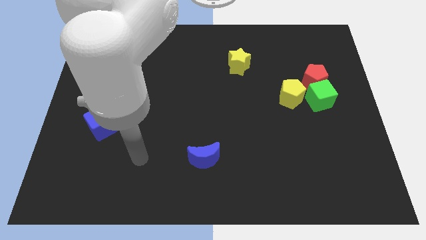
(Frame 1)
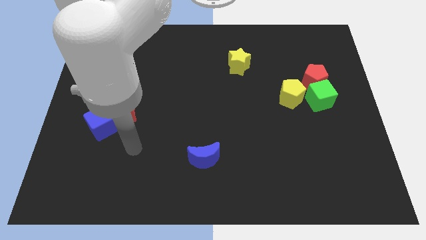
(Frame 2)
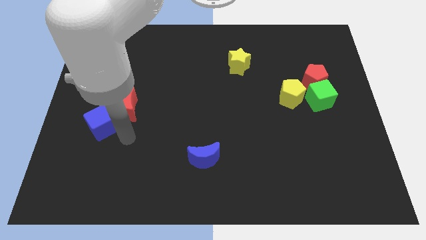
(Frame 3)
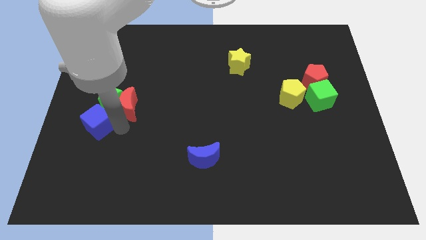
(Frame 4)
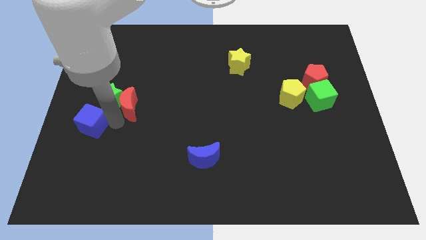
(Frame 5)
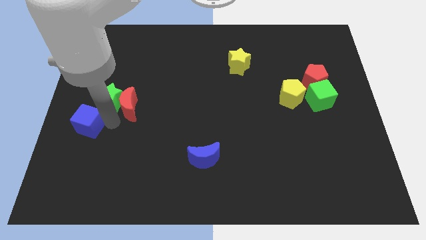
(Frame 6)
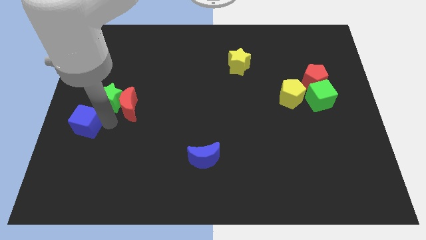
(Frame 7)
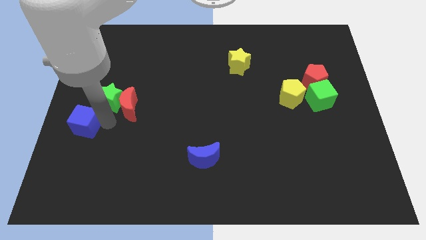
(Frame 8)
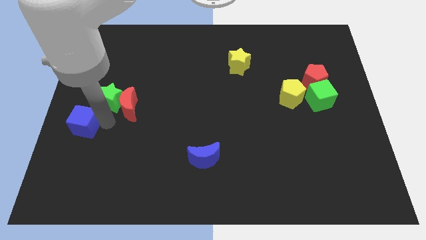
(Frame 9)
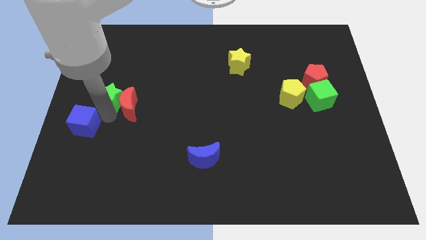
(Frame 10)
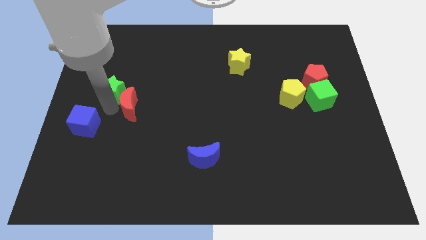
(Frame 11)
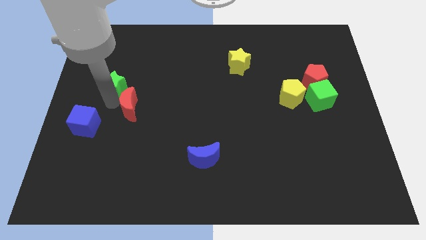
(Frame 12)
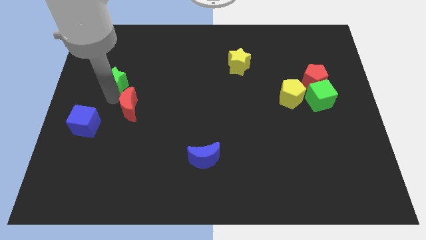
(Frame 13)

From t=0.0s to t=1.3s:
separate the green star from the red moon and blue cube

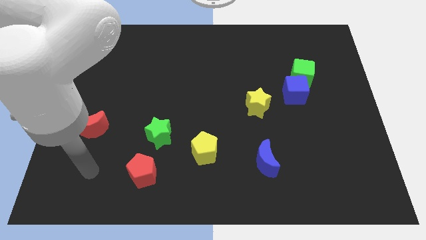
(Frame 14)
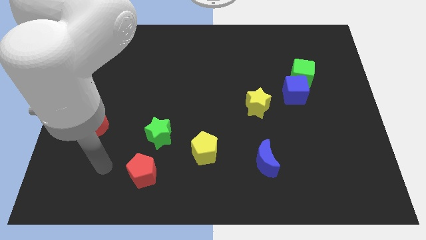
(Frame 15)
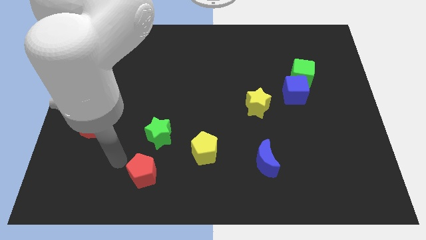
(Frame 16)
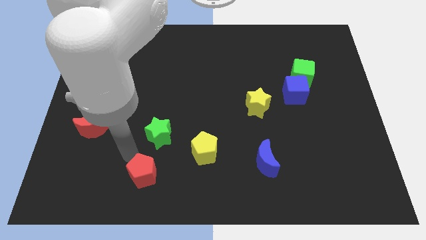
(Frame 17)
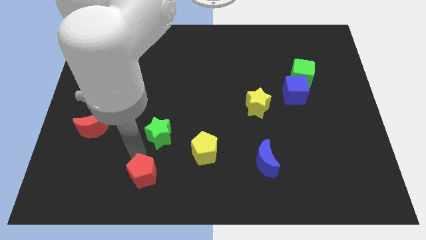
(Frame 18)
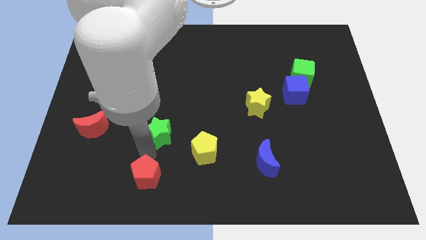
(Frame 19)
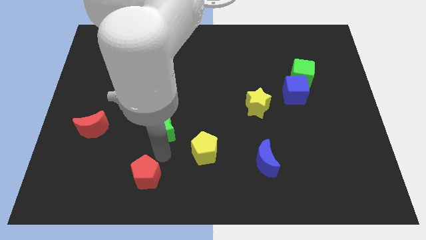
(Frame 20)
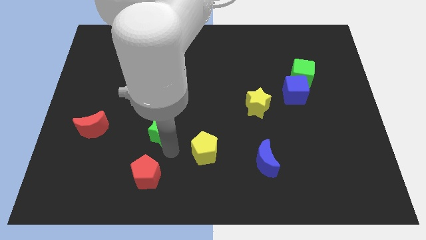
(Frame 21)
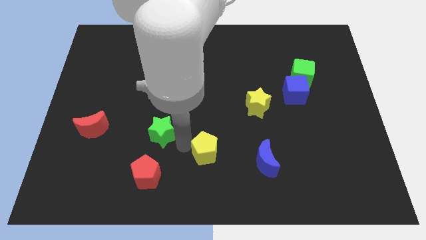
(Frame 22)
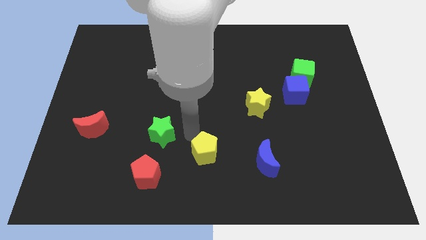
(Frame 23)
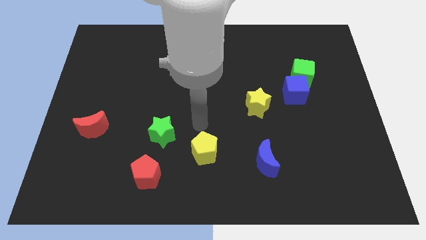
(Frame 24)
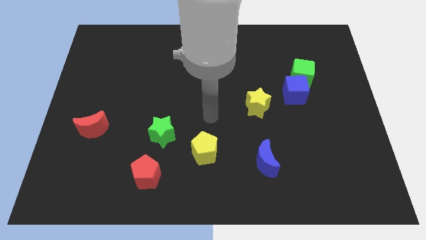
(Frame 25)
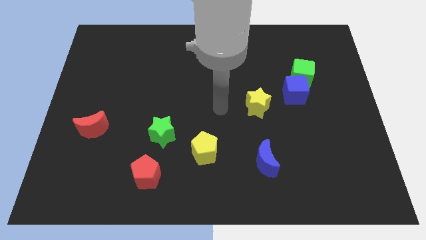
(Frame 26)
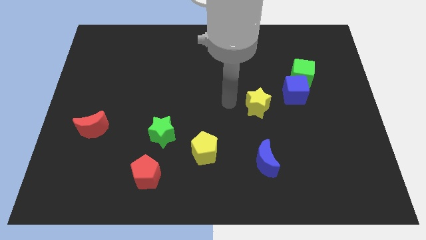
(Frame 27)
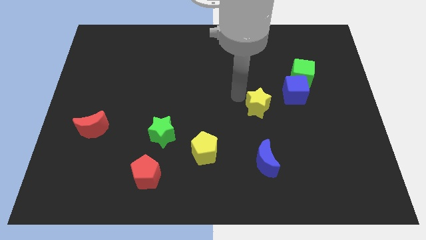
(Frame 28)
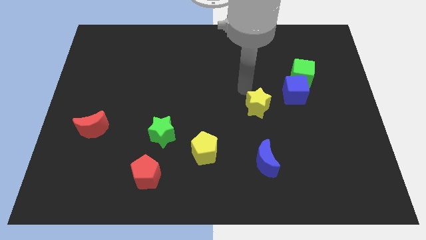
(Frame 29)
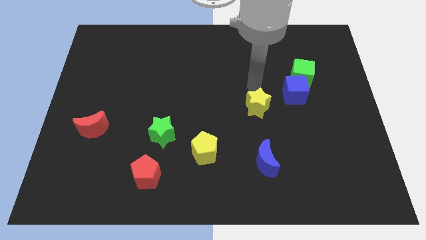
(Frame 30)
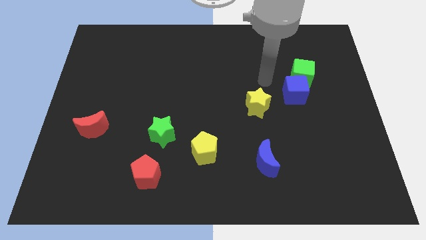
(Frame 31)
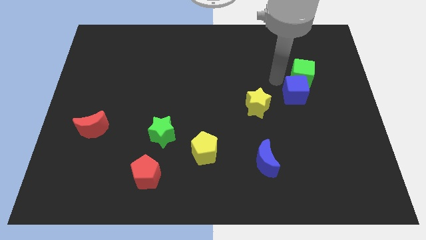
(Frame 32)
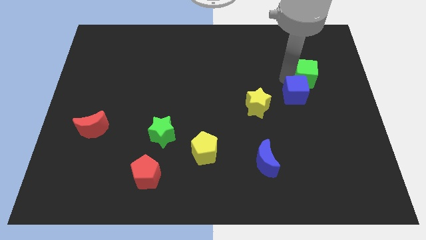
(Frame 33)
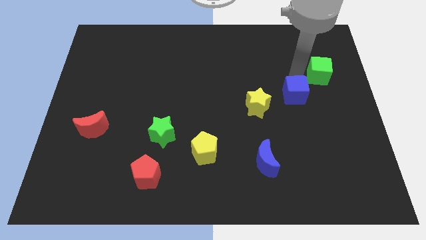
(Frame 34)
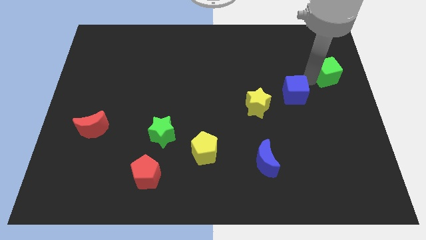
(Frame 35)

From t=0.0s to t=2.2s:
separate the blue cube from the green cube

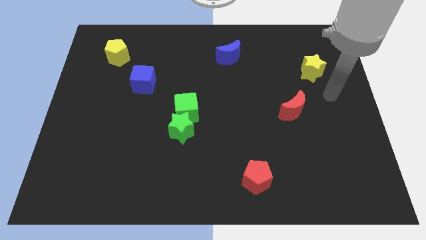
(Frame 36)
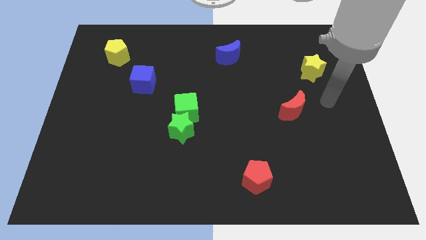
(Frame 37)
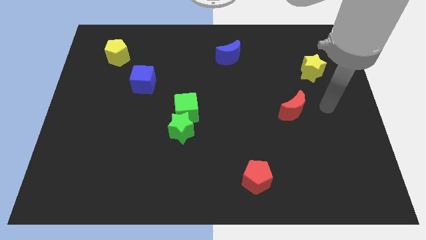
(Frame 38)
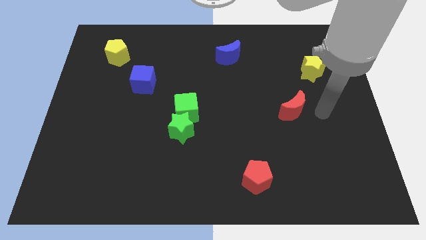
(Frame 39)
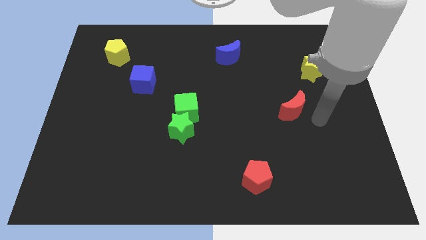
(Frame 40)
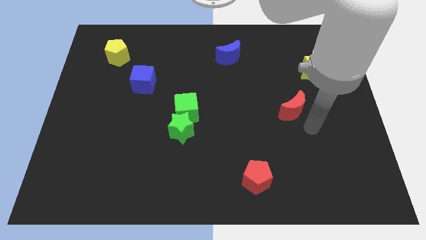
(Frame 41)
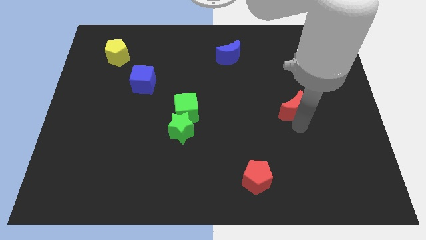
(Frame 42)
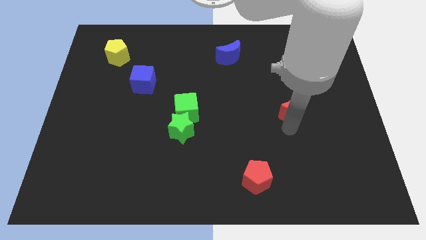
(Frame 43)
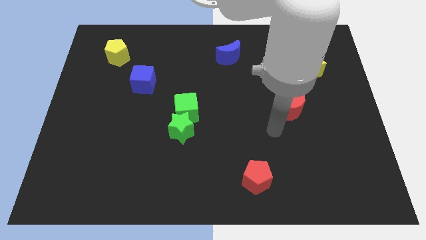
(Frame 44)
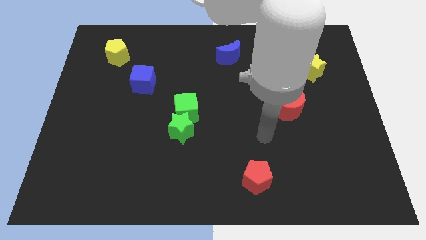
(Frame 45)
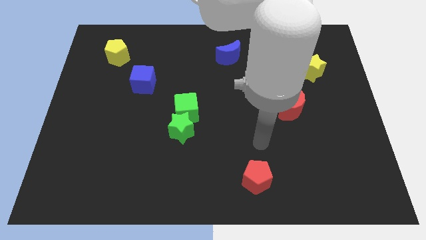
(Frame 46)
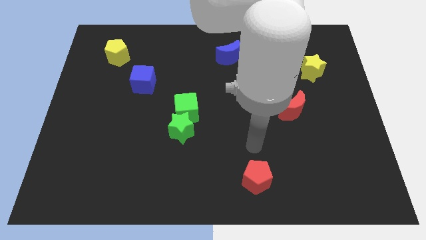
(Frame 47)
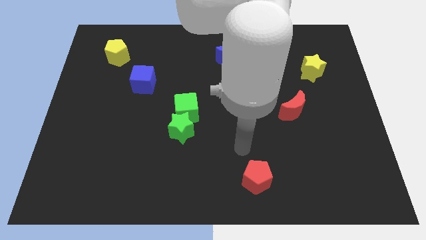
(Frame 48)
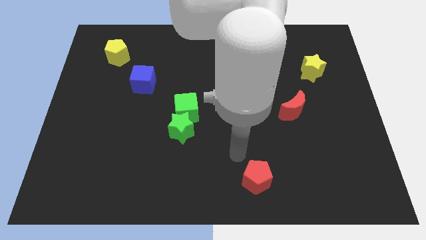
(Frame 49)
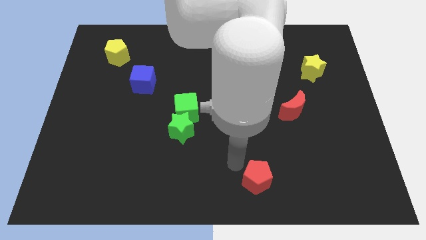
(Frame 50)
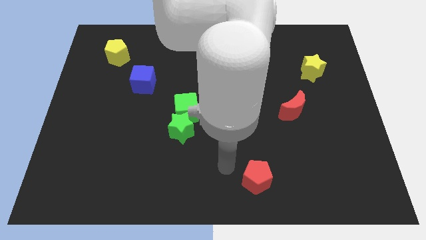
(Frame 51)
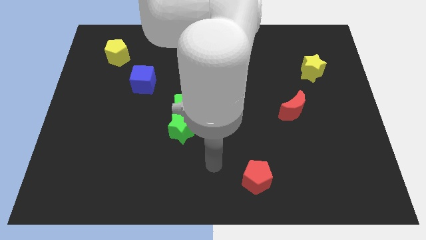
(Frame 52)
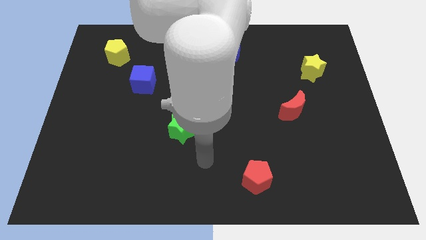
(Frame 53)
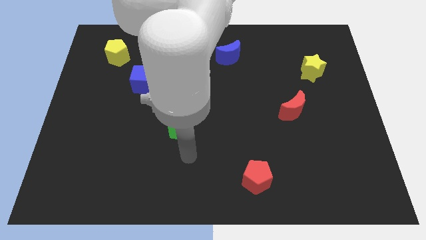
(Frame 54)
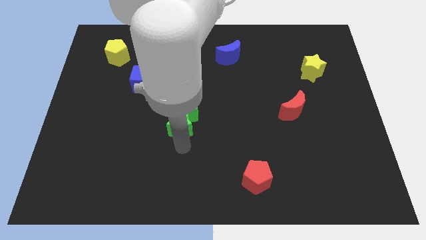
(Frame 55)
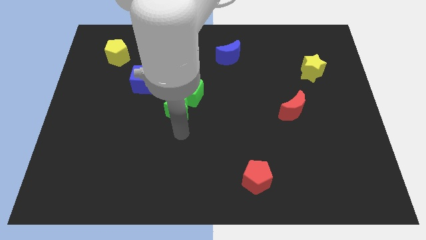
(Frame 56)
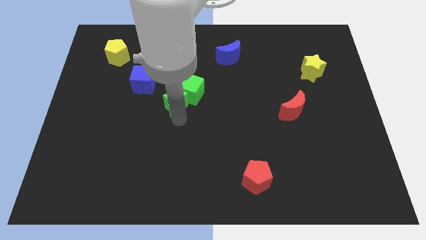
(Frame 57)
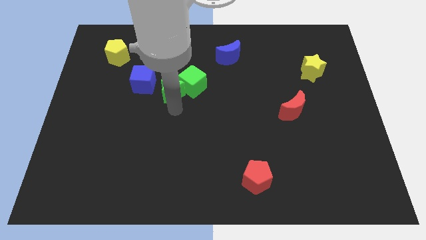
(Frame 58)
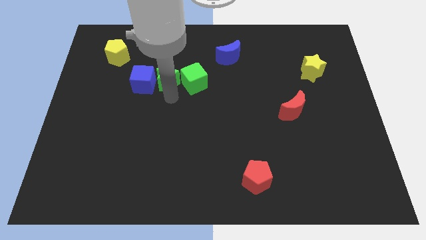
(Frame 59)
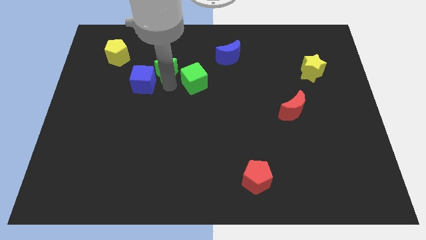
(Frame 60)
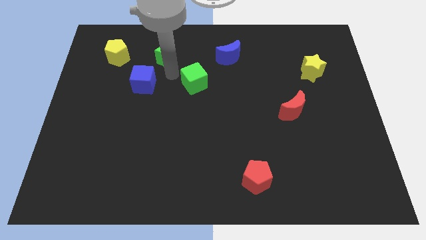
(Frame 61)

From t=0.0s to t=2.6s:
move the green cube away from the green star

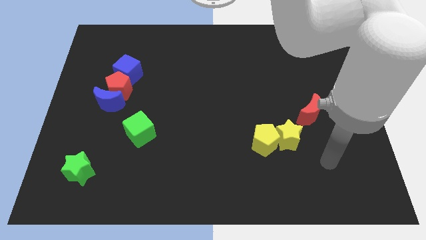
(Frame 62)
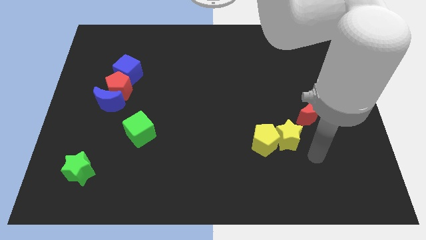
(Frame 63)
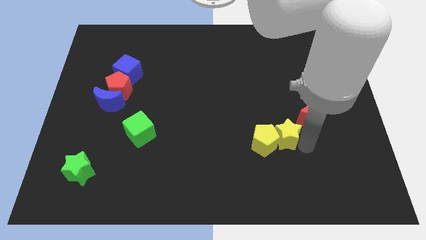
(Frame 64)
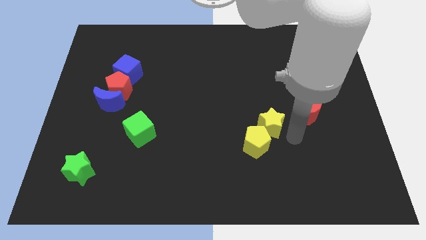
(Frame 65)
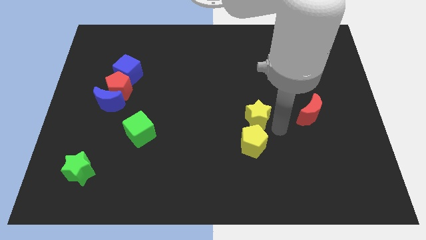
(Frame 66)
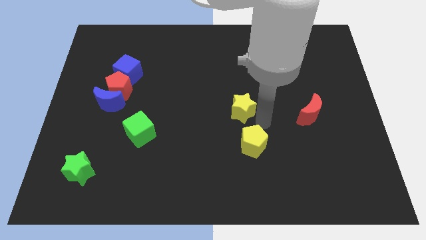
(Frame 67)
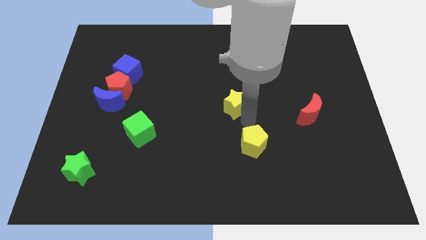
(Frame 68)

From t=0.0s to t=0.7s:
separate the yellow pentagon from the yellow star

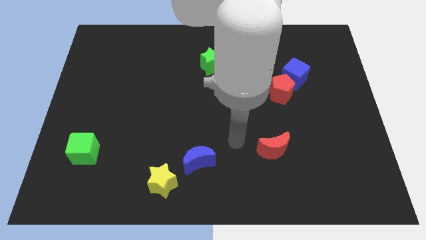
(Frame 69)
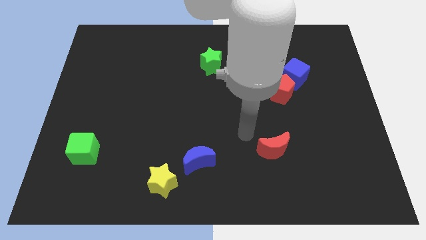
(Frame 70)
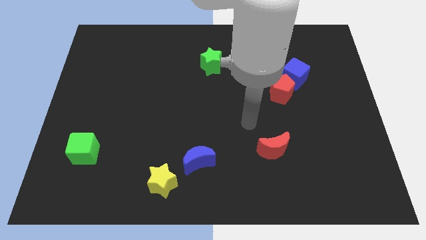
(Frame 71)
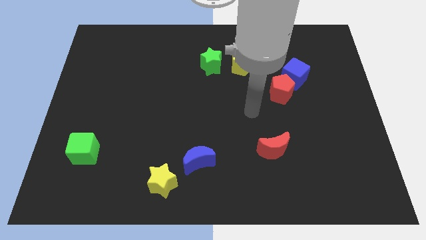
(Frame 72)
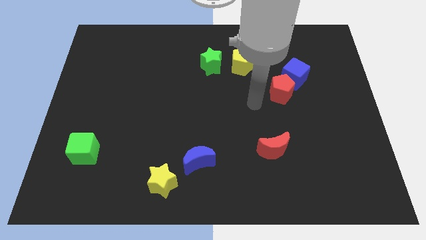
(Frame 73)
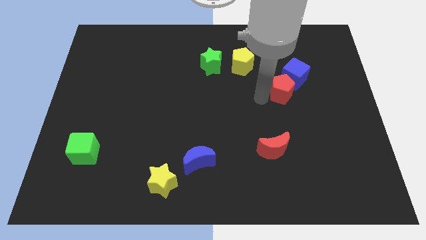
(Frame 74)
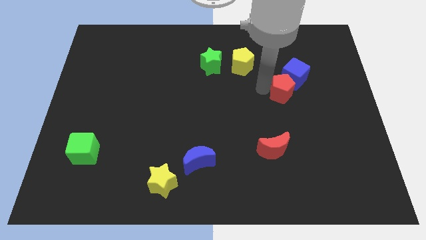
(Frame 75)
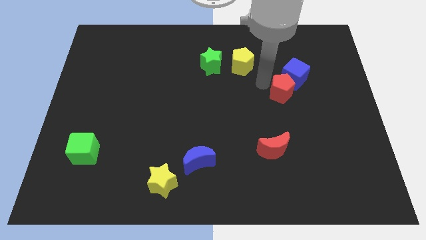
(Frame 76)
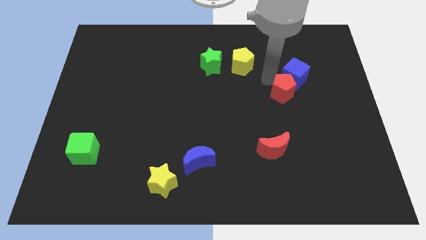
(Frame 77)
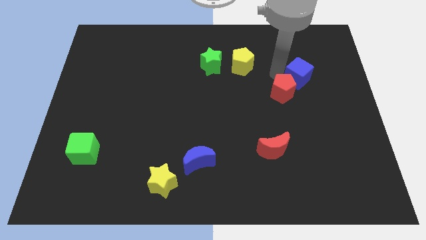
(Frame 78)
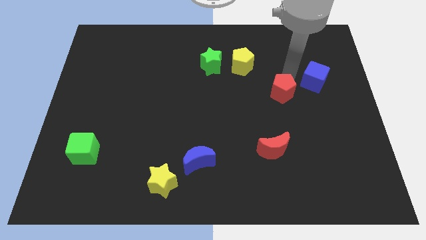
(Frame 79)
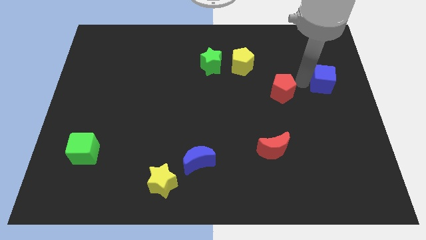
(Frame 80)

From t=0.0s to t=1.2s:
pull the red pentagon apart from the blue cube

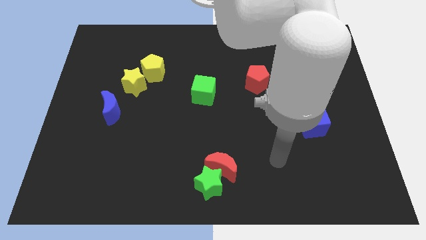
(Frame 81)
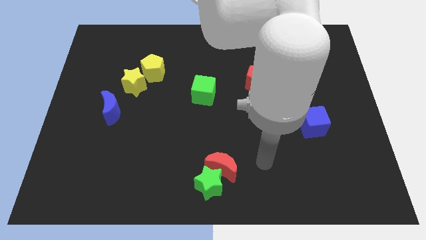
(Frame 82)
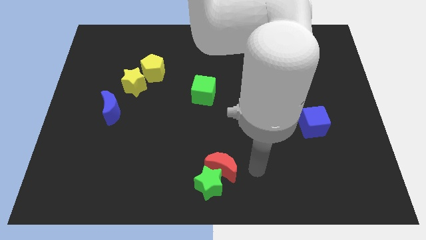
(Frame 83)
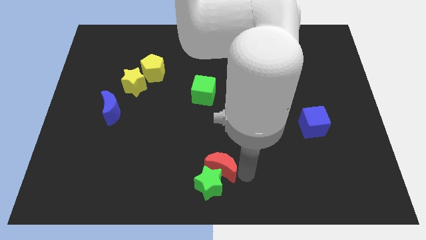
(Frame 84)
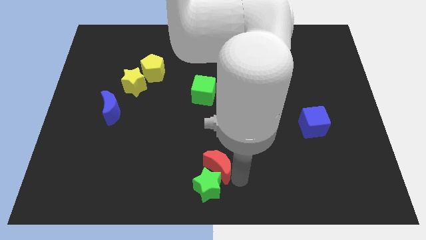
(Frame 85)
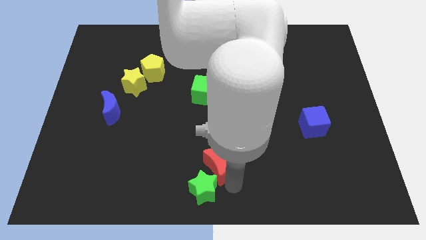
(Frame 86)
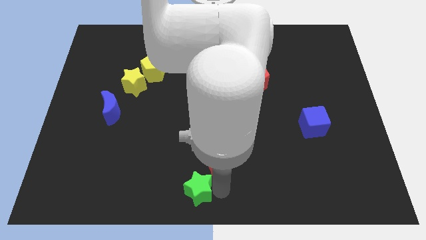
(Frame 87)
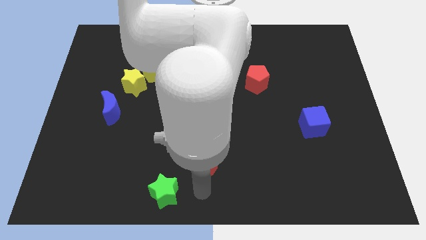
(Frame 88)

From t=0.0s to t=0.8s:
pull the red moon apart from the green star

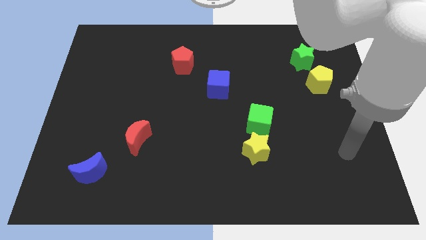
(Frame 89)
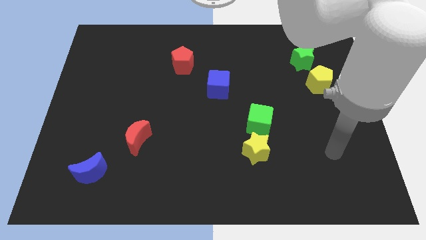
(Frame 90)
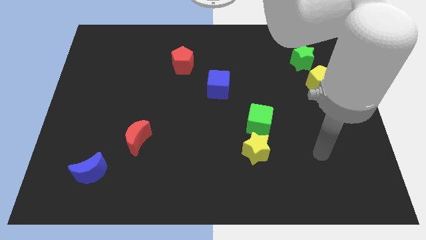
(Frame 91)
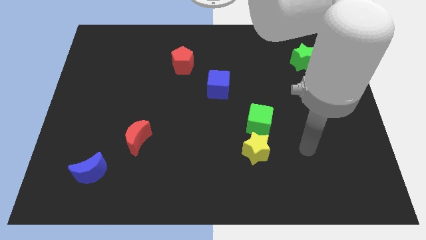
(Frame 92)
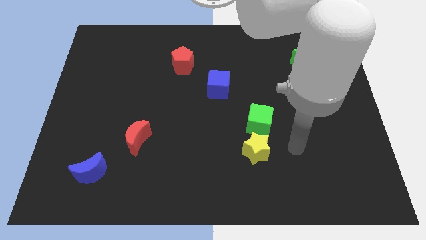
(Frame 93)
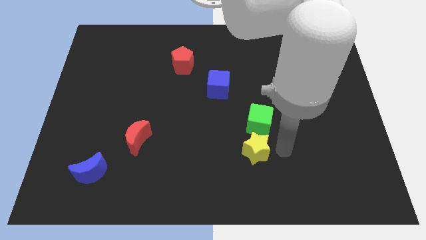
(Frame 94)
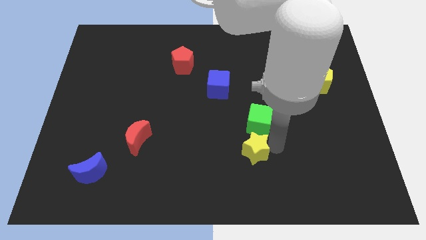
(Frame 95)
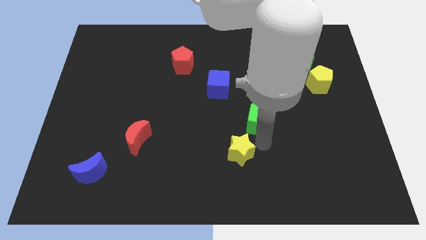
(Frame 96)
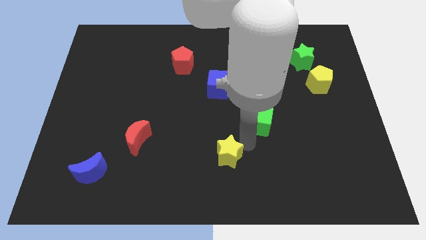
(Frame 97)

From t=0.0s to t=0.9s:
pull the green cube apart from the yellow star
